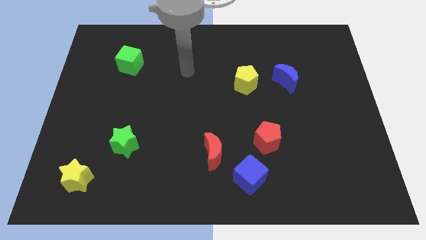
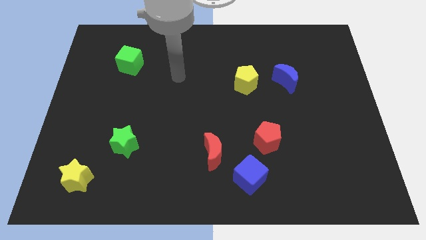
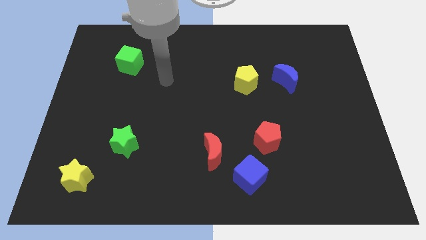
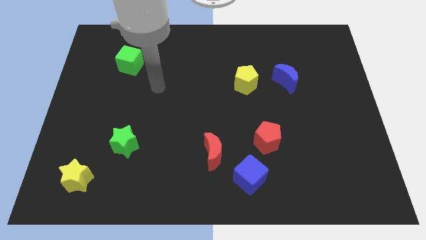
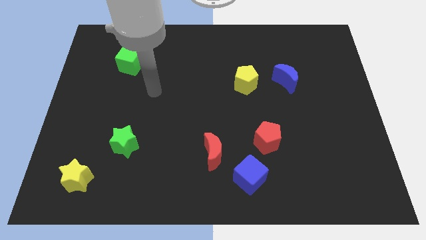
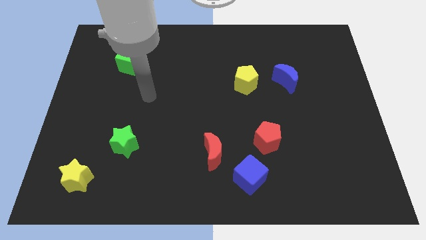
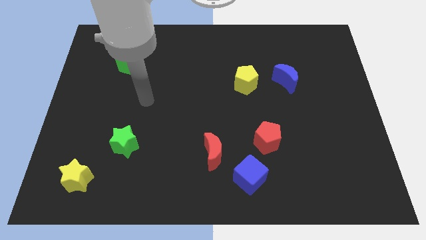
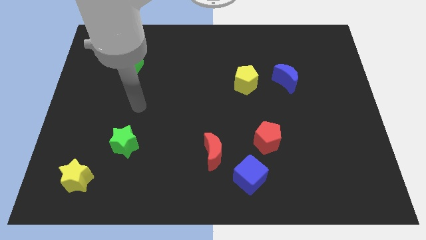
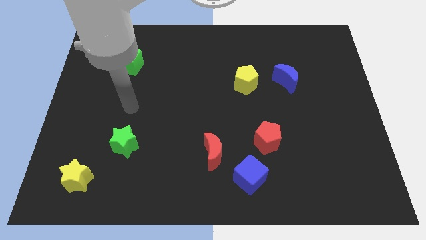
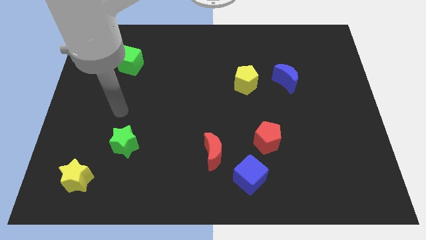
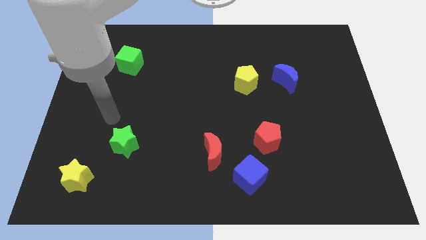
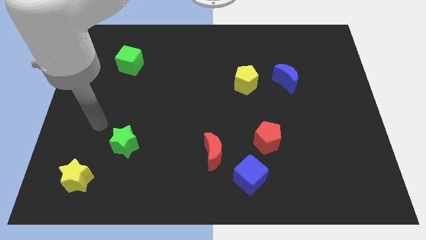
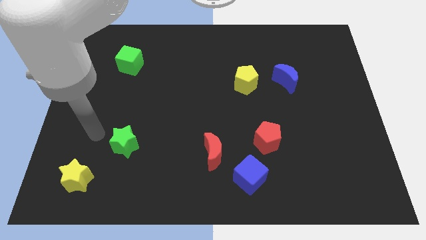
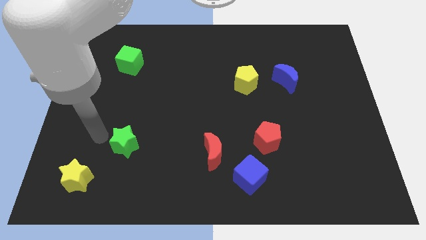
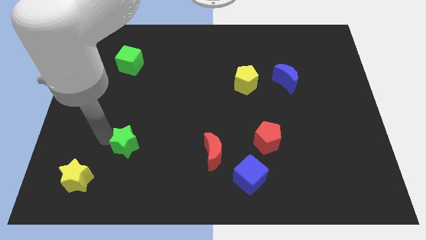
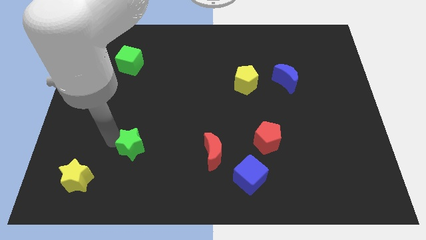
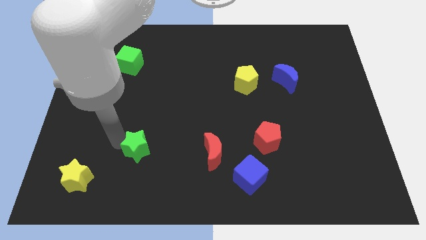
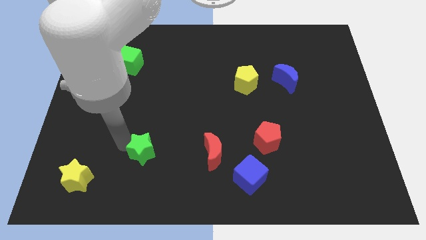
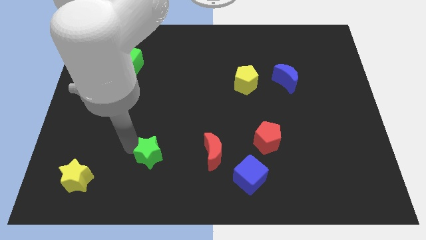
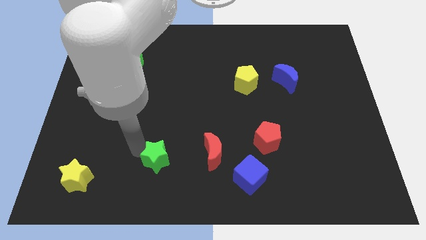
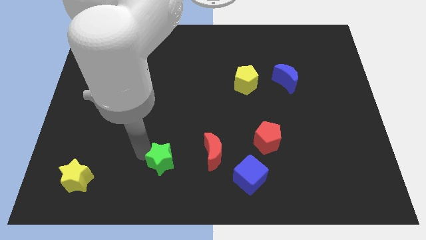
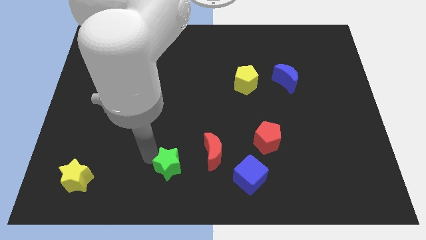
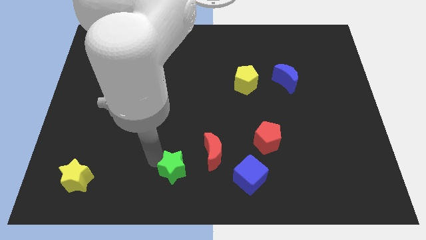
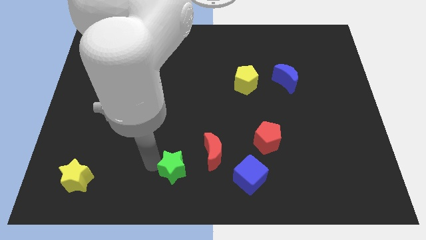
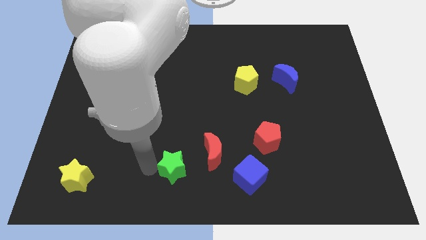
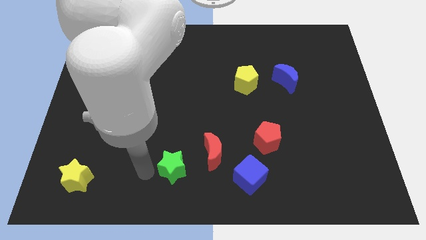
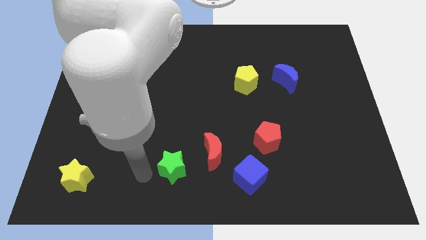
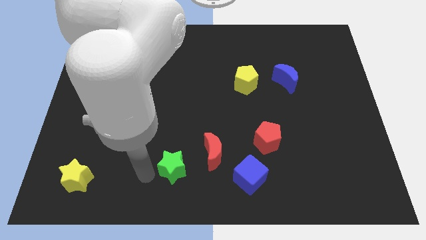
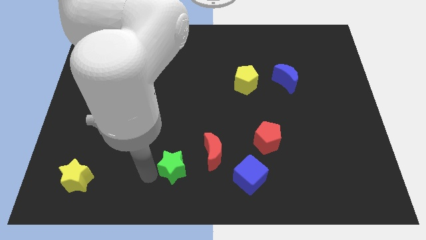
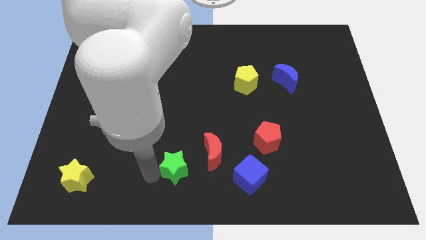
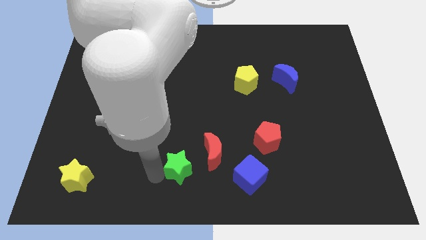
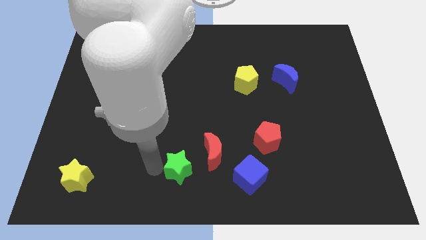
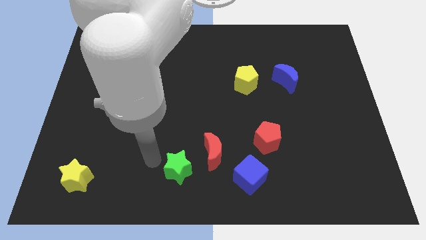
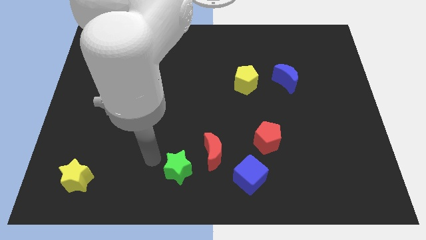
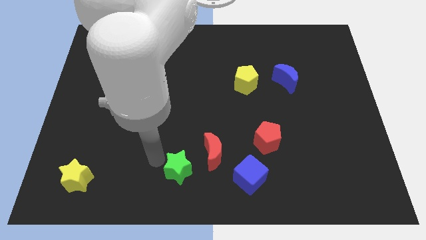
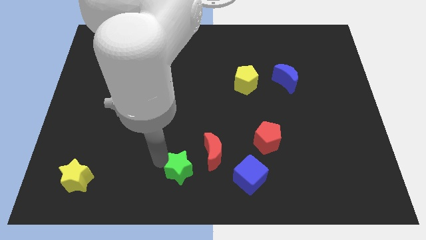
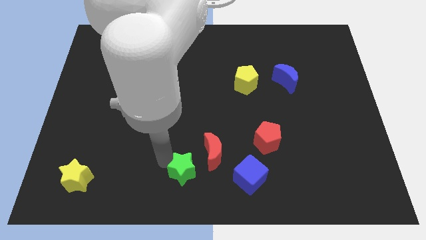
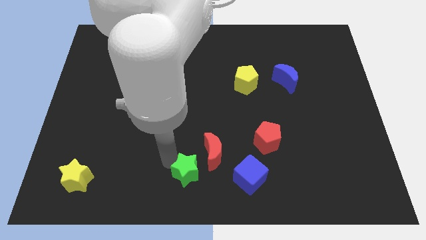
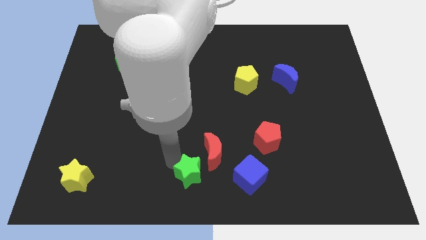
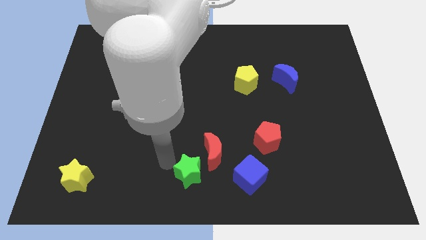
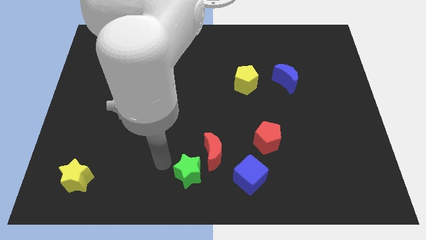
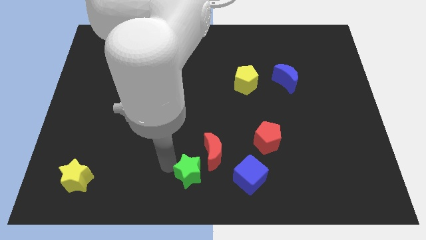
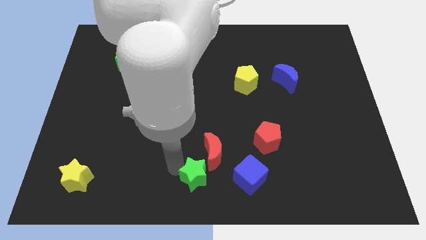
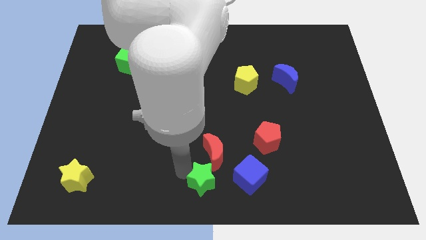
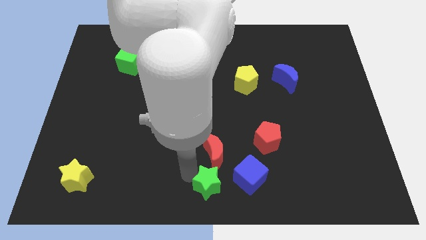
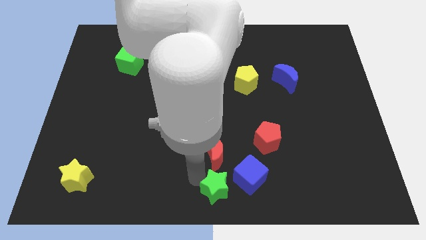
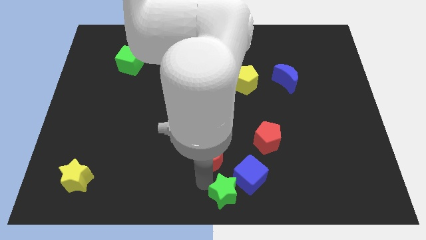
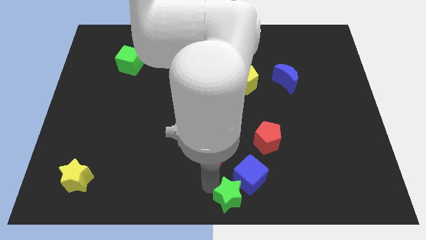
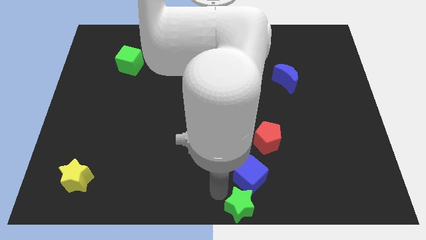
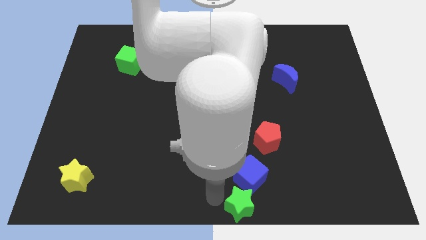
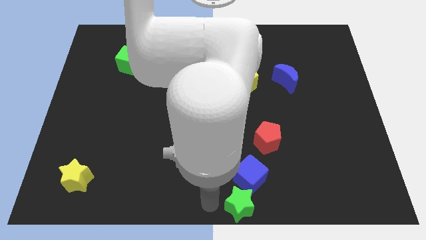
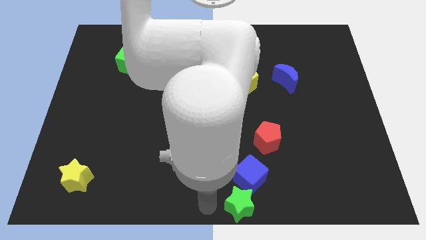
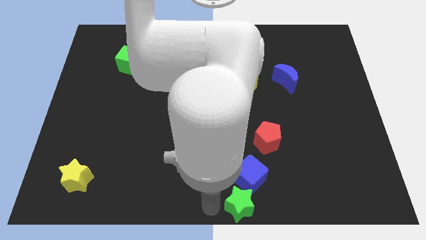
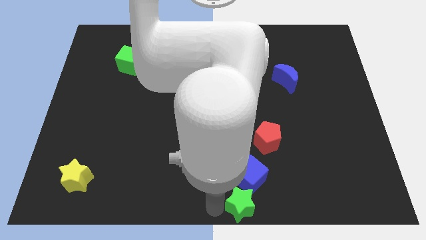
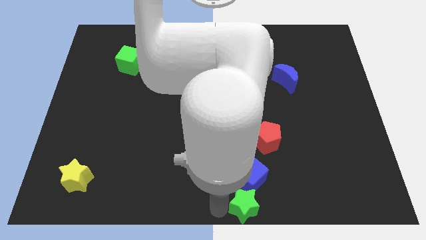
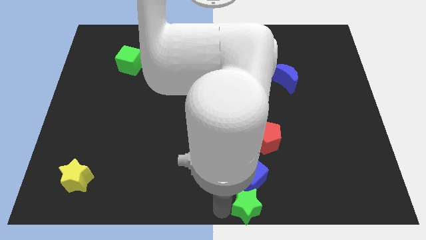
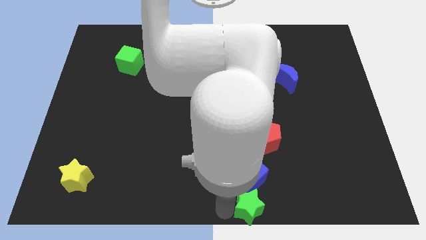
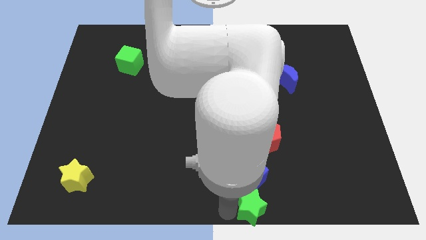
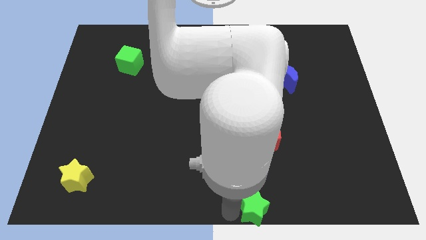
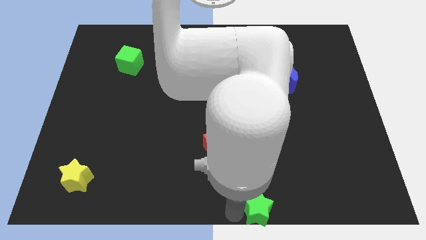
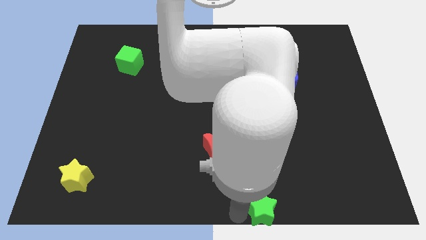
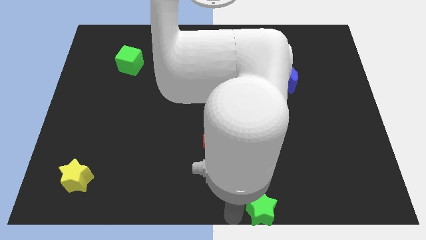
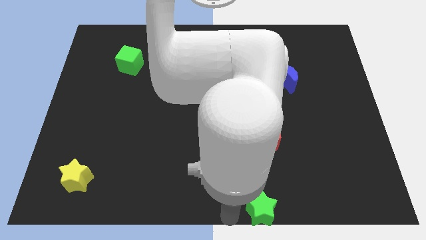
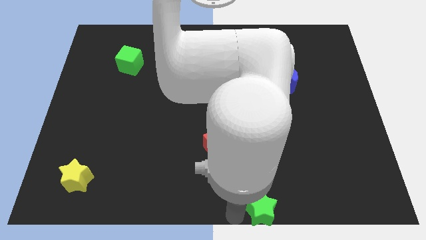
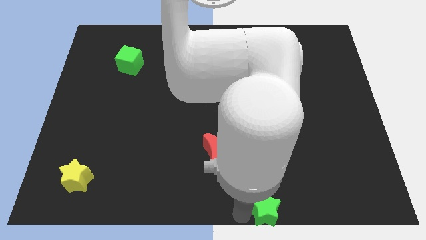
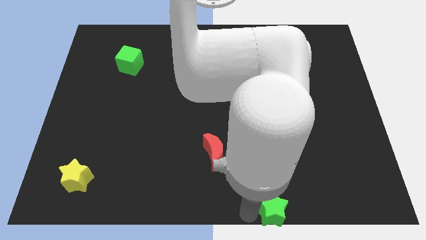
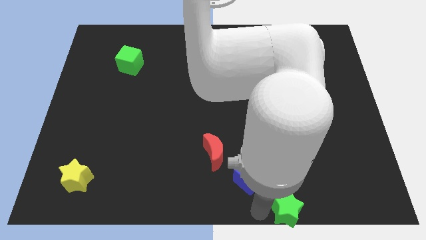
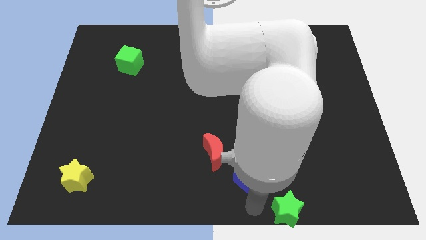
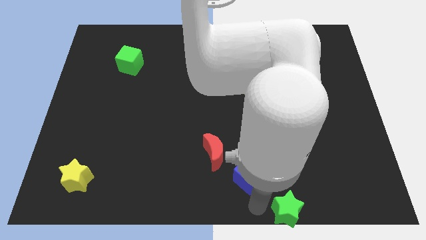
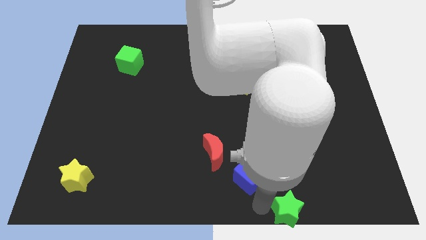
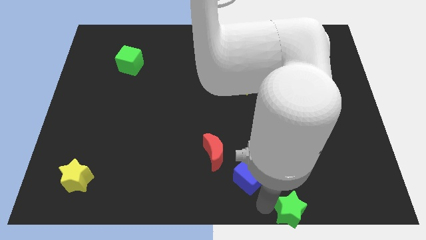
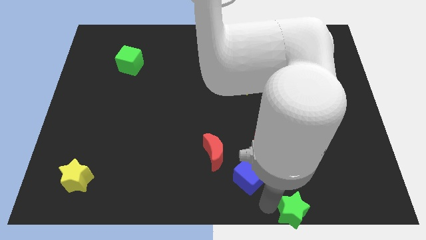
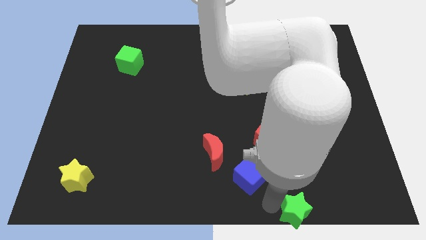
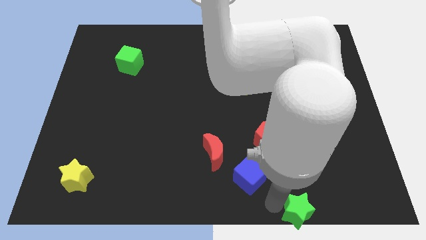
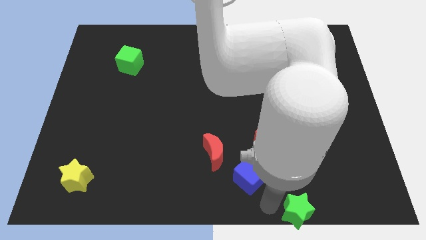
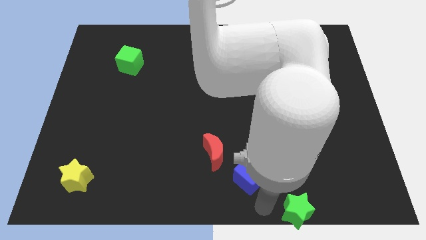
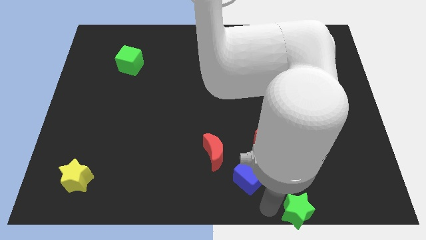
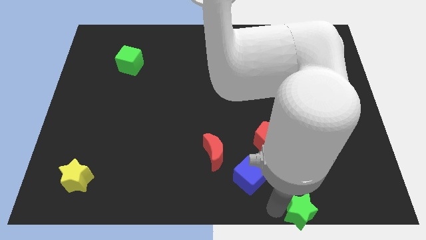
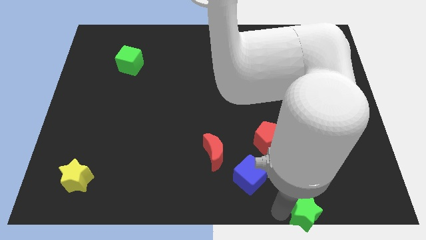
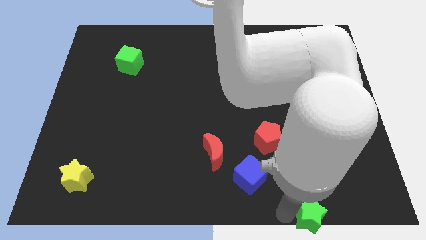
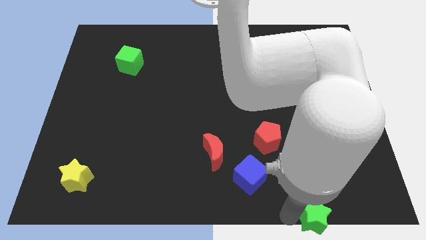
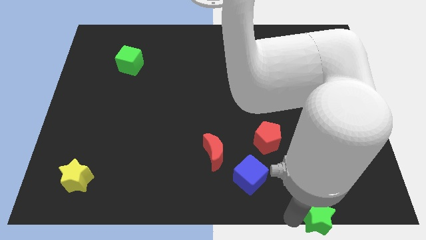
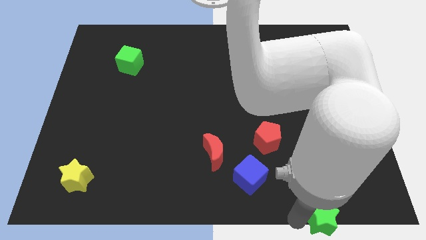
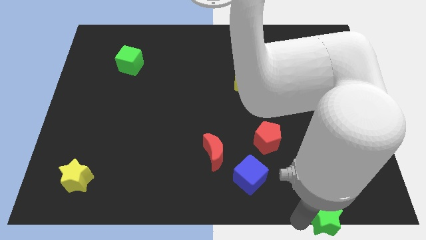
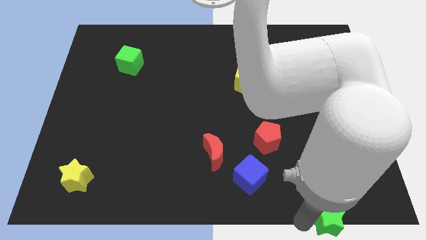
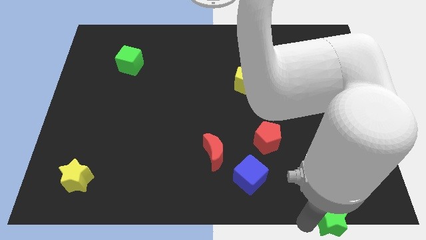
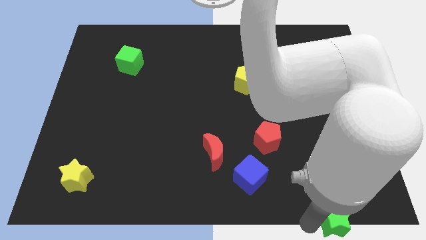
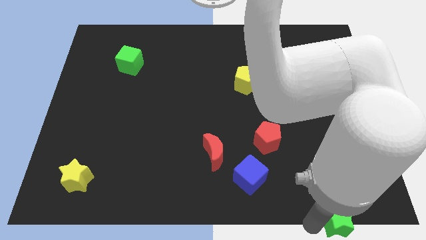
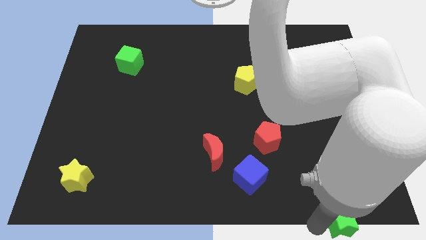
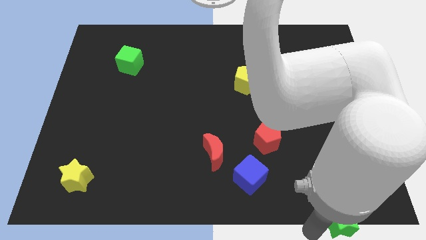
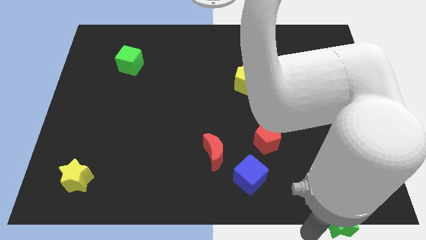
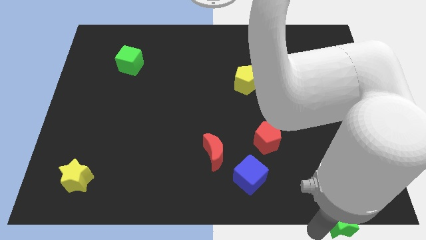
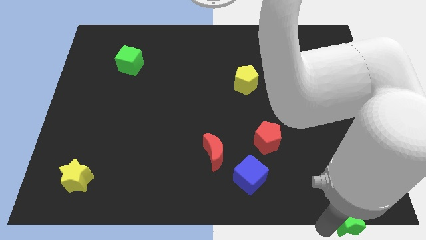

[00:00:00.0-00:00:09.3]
put the green star to the bottom right
